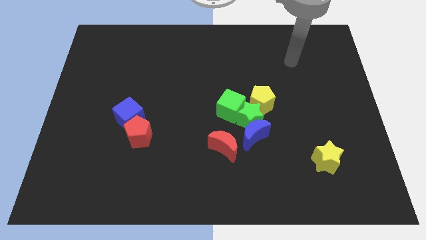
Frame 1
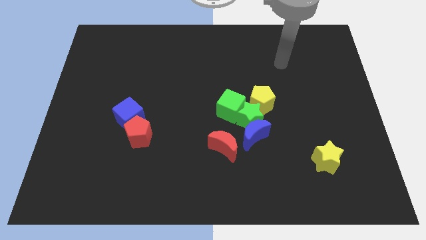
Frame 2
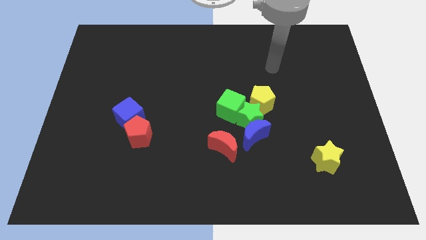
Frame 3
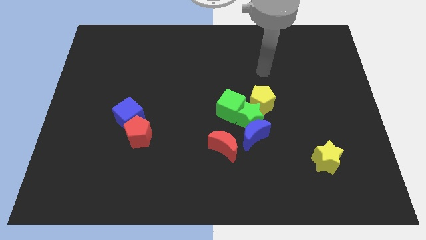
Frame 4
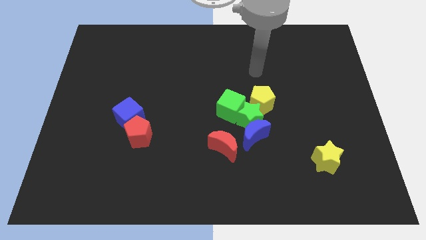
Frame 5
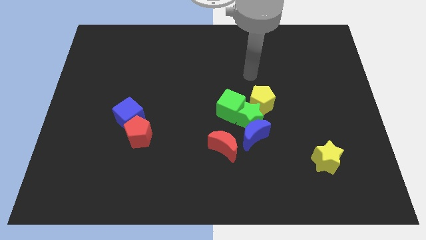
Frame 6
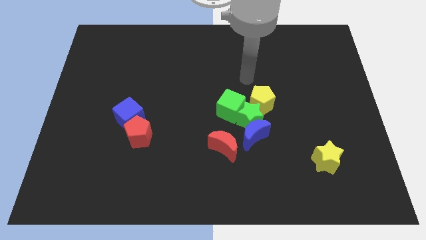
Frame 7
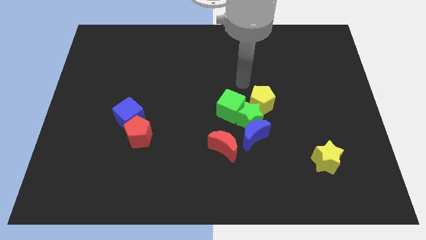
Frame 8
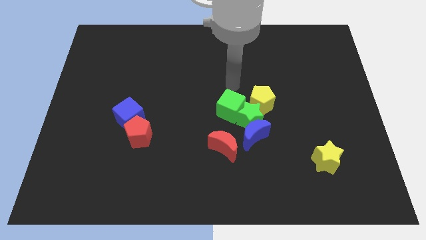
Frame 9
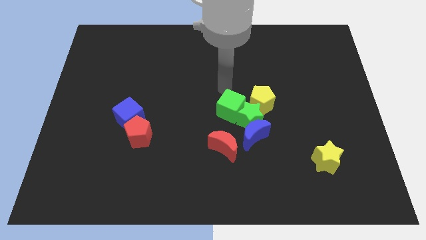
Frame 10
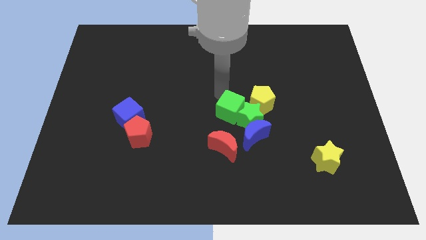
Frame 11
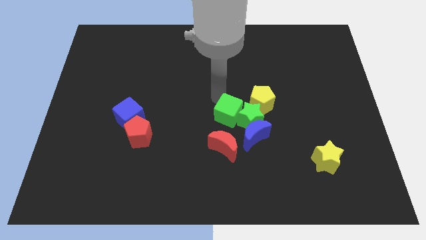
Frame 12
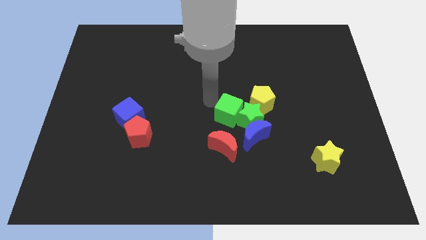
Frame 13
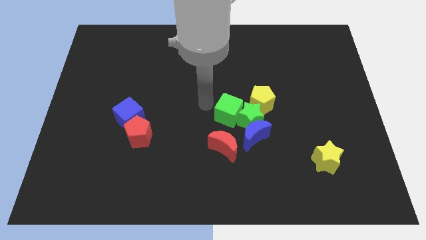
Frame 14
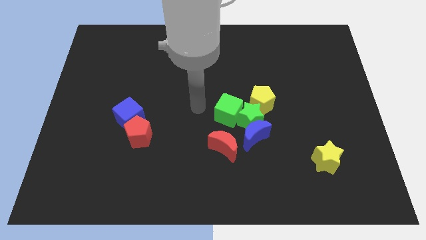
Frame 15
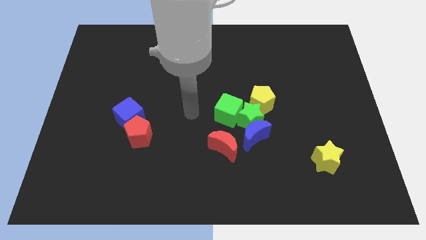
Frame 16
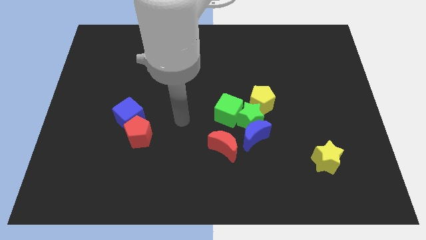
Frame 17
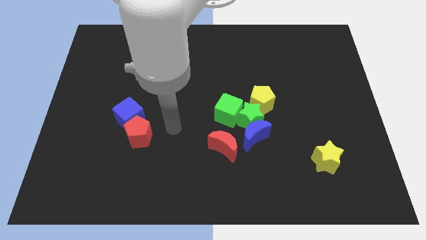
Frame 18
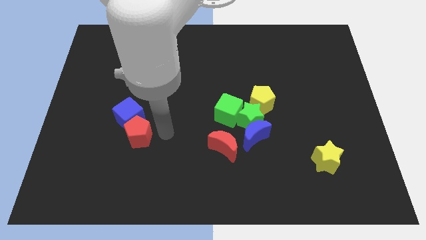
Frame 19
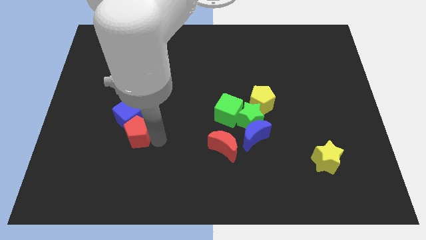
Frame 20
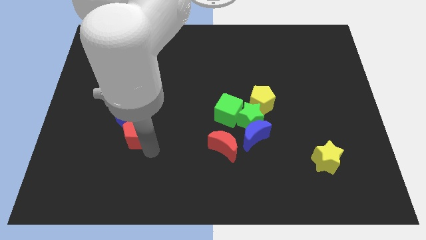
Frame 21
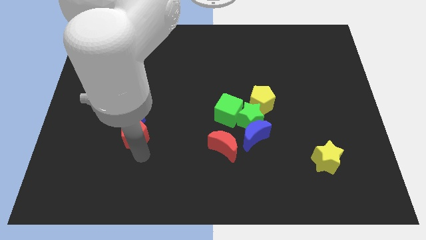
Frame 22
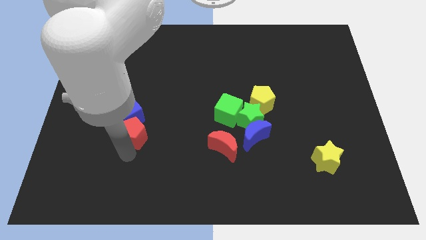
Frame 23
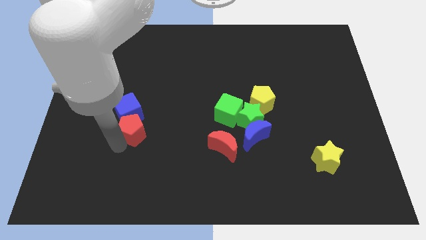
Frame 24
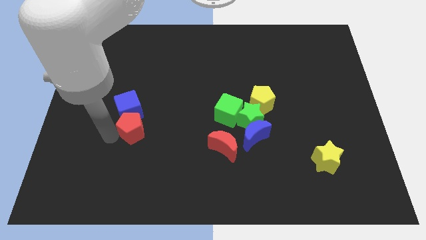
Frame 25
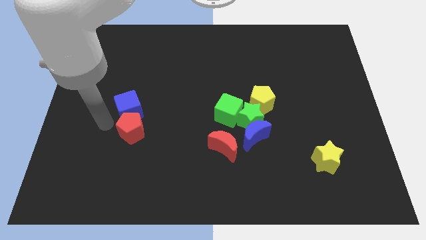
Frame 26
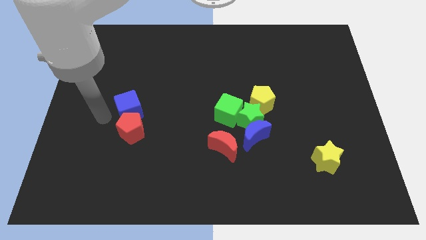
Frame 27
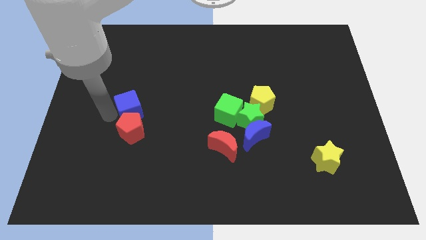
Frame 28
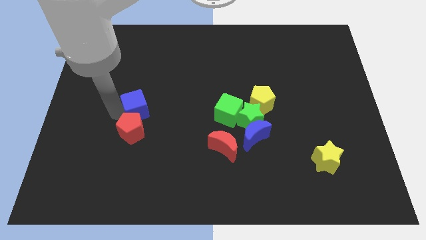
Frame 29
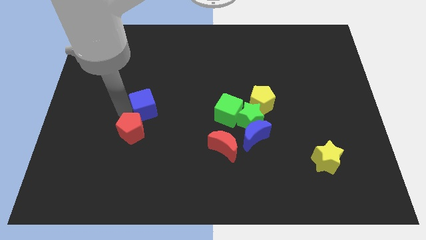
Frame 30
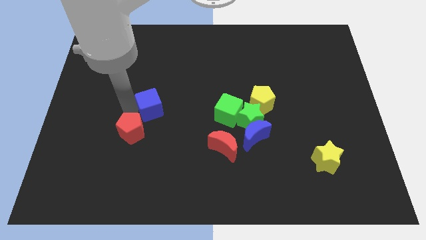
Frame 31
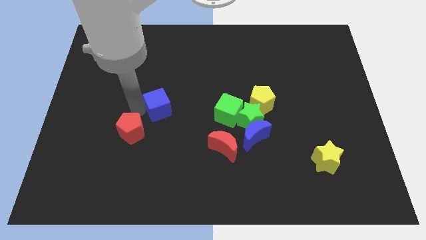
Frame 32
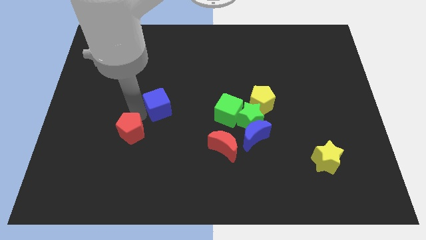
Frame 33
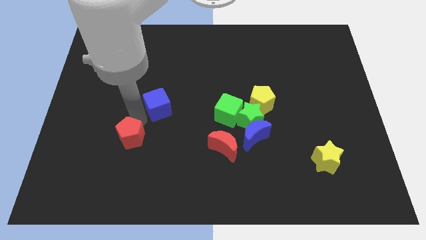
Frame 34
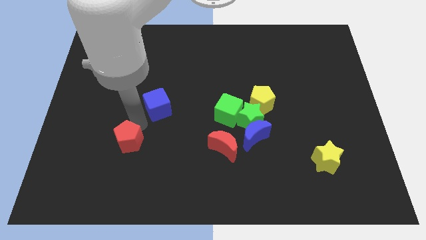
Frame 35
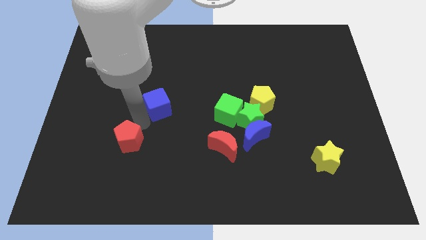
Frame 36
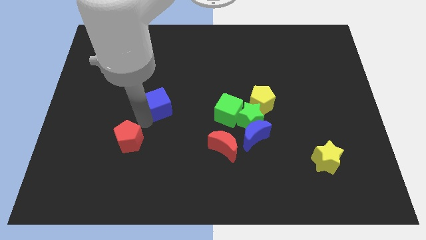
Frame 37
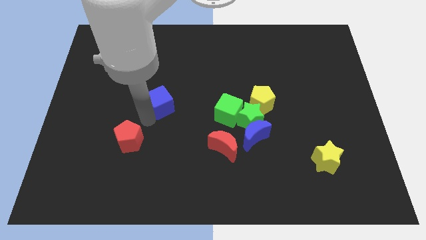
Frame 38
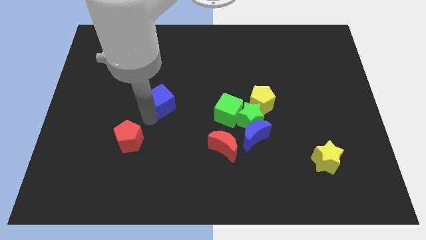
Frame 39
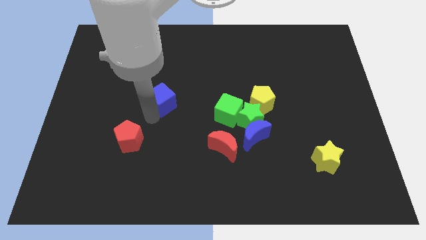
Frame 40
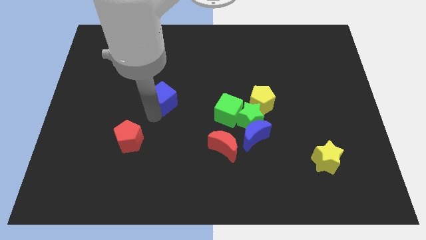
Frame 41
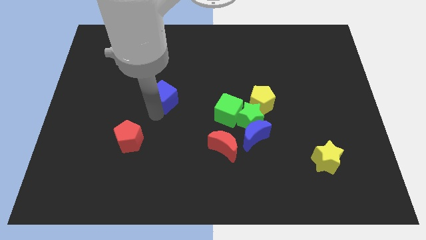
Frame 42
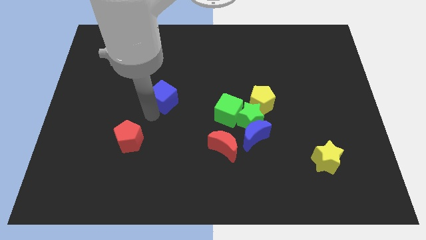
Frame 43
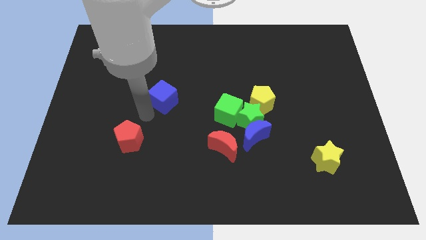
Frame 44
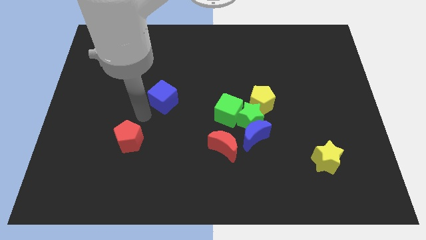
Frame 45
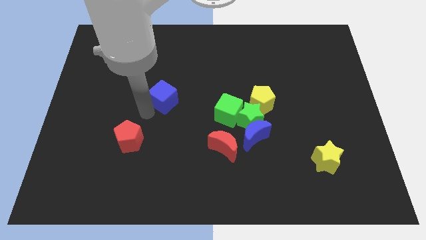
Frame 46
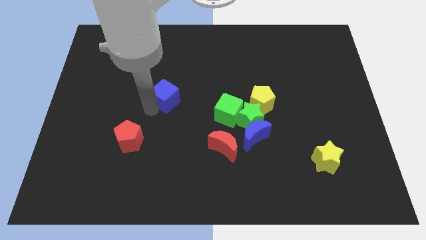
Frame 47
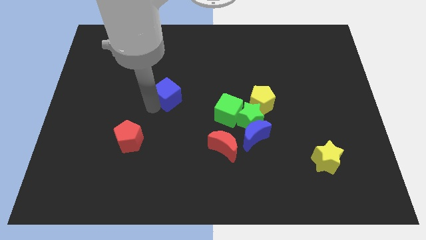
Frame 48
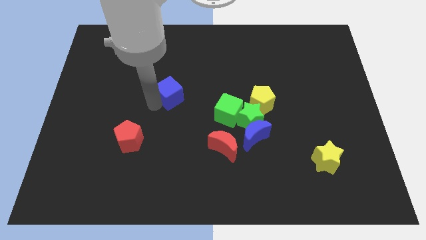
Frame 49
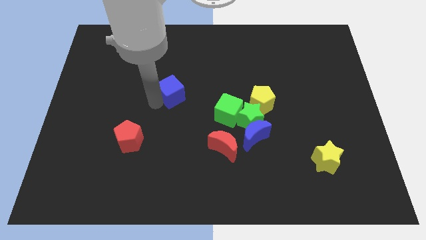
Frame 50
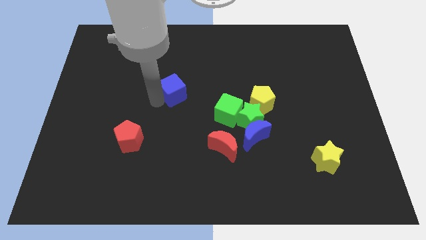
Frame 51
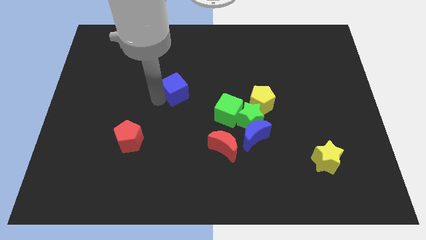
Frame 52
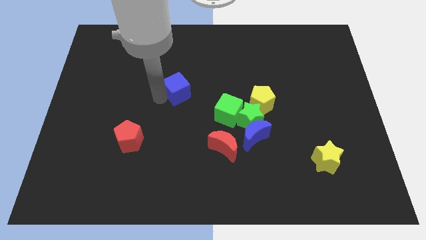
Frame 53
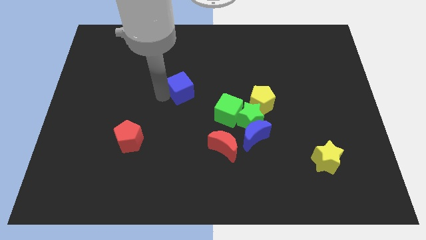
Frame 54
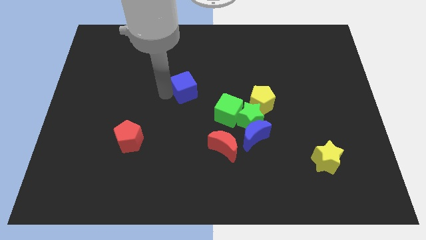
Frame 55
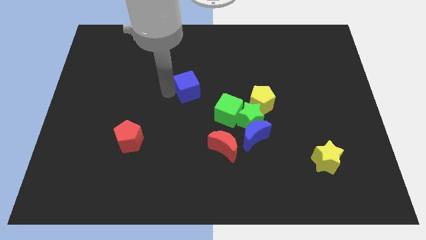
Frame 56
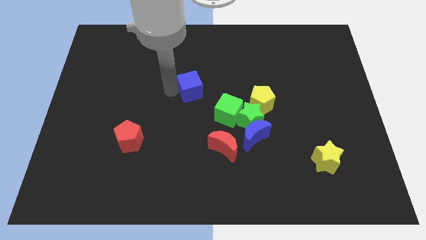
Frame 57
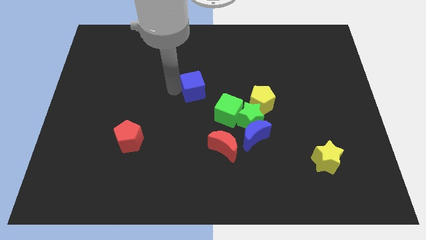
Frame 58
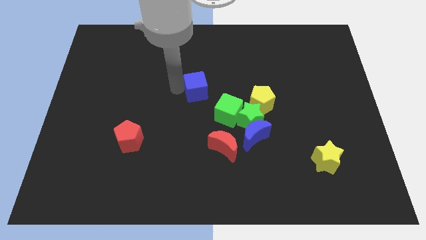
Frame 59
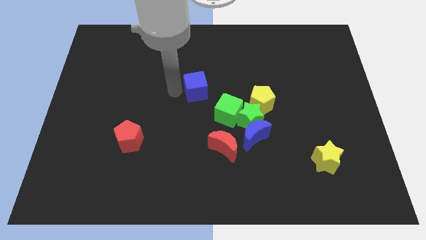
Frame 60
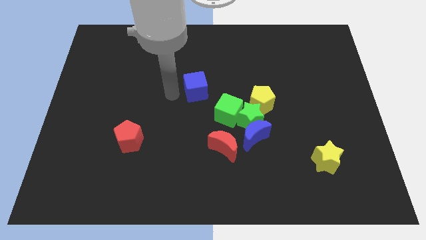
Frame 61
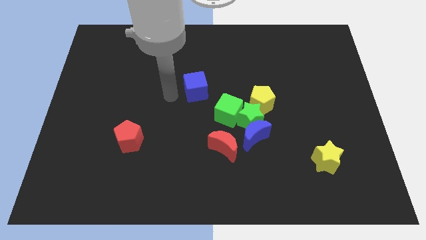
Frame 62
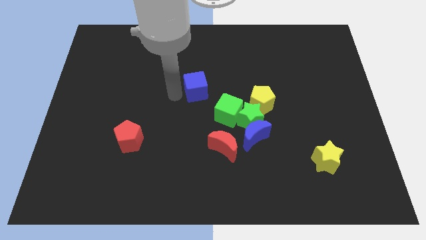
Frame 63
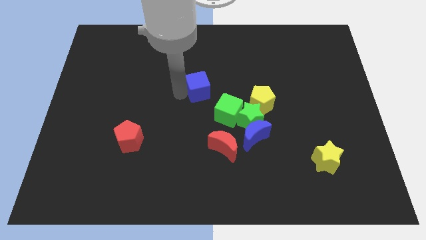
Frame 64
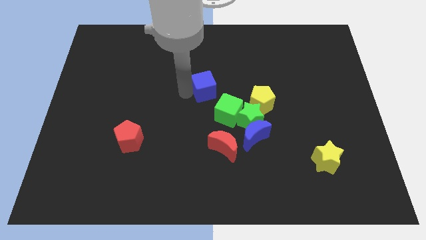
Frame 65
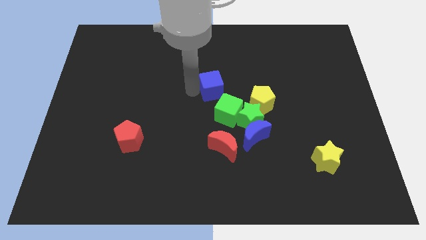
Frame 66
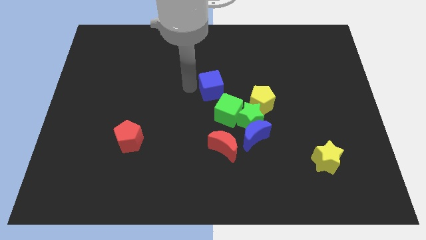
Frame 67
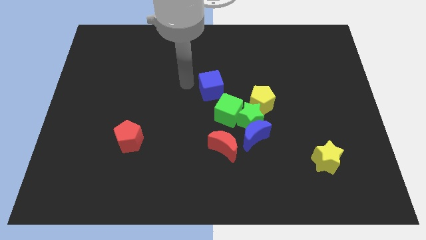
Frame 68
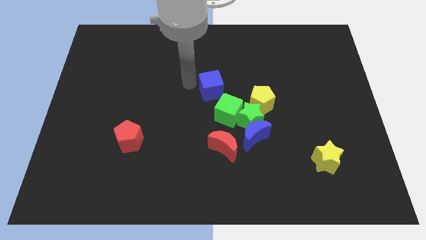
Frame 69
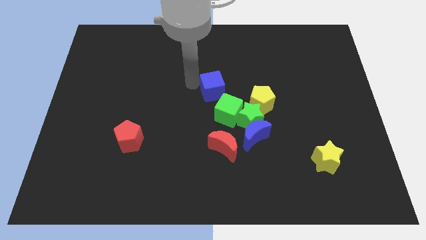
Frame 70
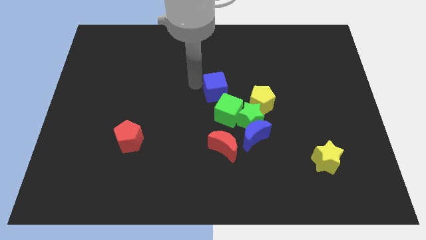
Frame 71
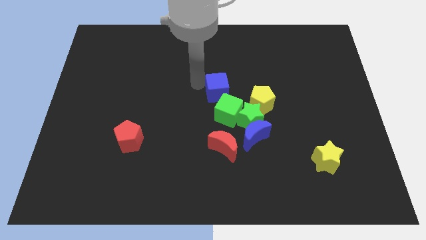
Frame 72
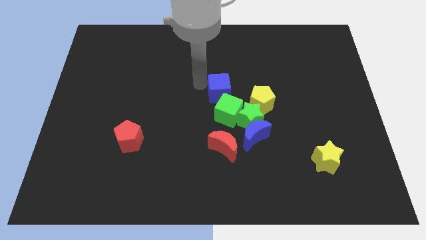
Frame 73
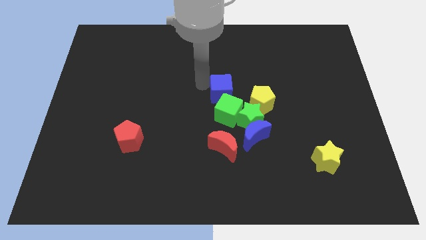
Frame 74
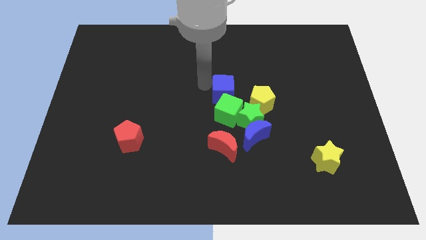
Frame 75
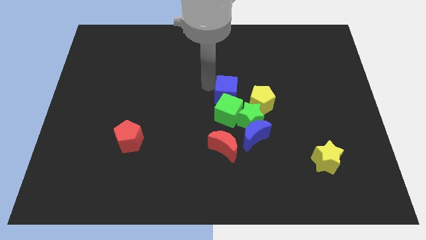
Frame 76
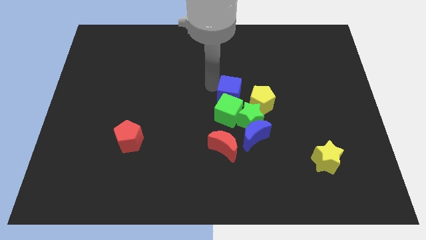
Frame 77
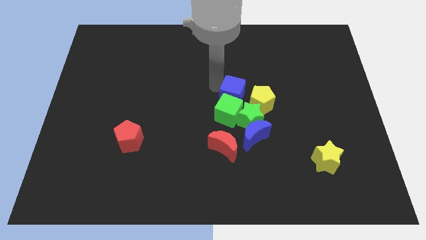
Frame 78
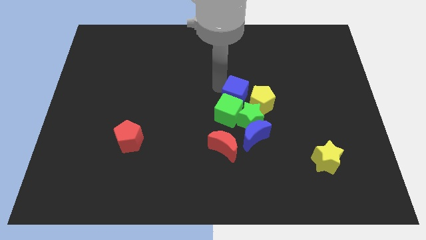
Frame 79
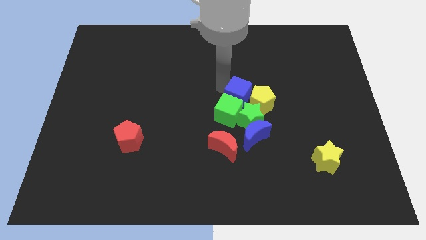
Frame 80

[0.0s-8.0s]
slide the blue cube close to the yellow pentagon
